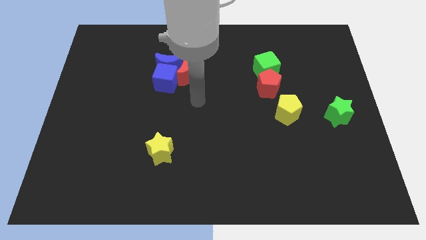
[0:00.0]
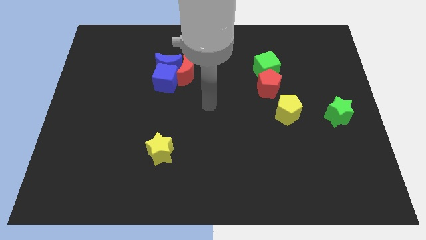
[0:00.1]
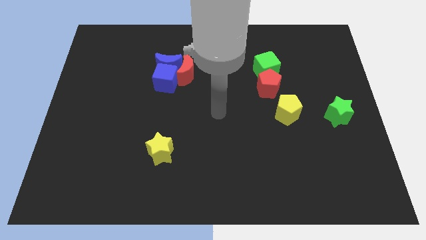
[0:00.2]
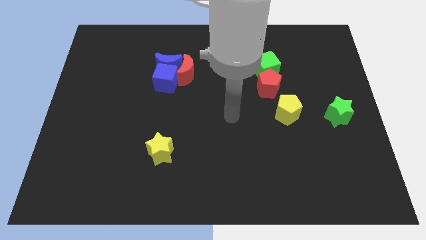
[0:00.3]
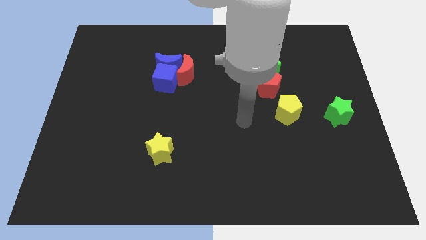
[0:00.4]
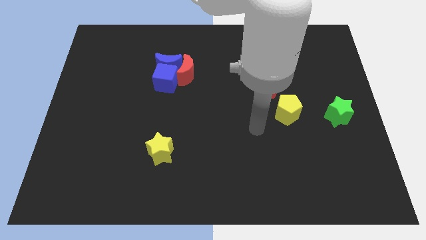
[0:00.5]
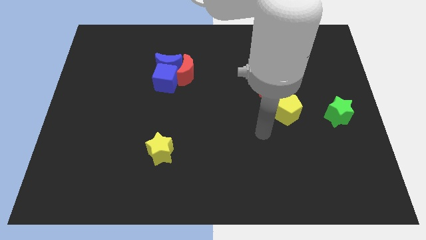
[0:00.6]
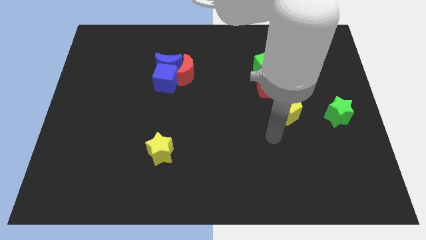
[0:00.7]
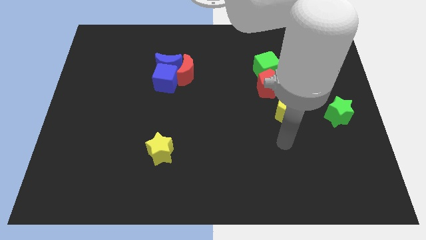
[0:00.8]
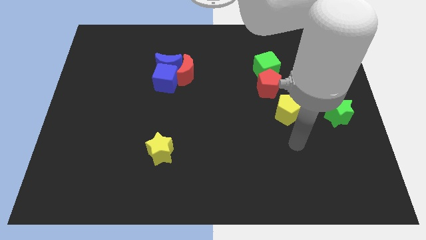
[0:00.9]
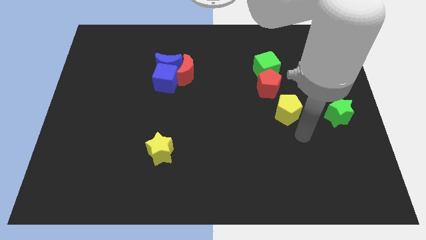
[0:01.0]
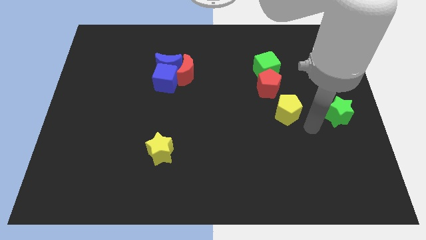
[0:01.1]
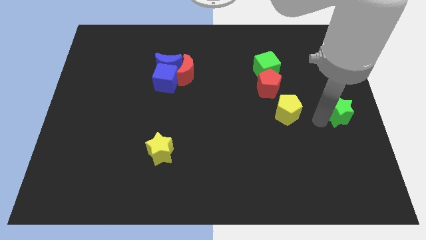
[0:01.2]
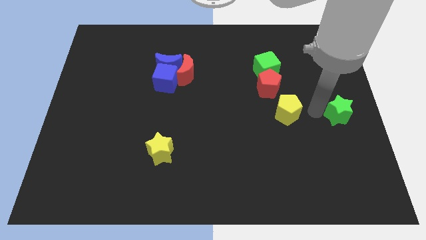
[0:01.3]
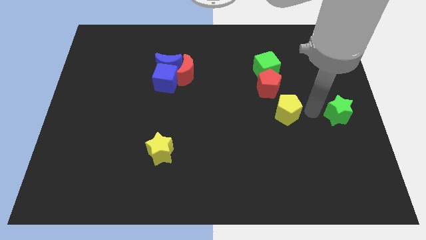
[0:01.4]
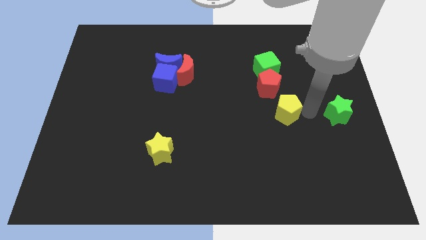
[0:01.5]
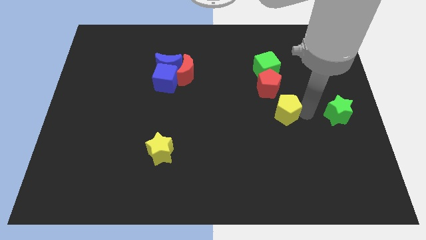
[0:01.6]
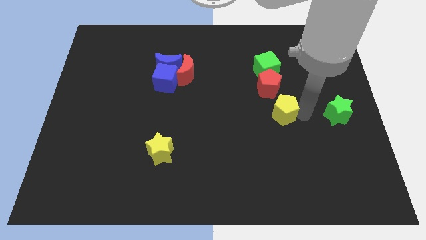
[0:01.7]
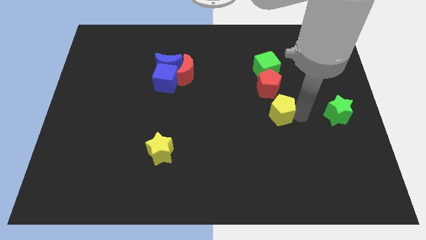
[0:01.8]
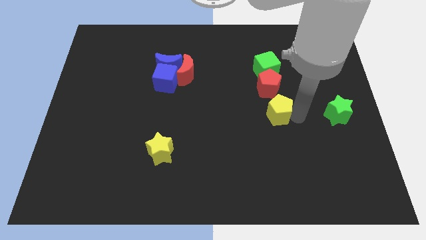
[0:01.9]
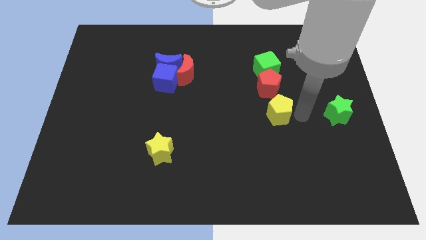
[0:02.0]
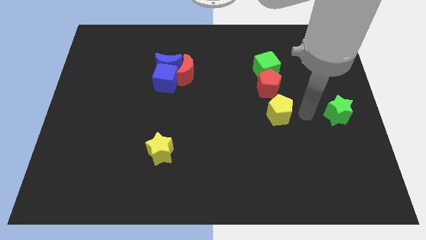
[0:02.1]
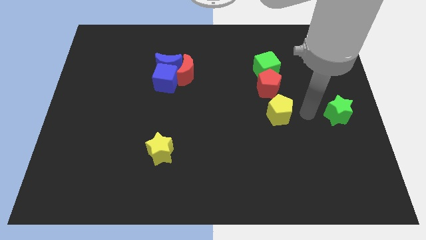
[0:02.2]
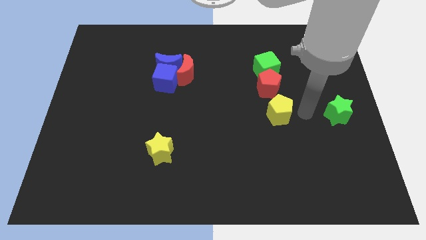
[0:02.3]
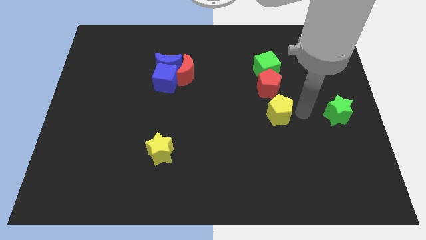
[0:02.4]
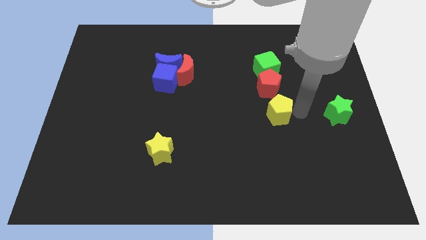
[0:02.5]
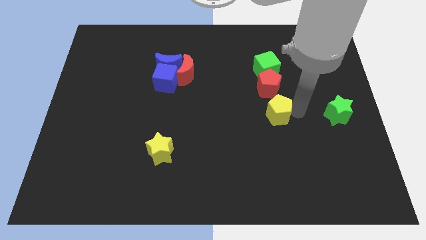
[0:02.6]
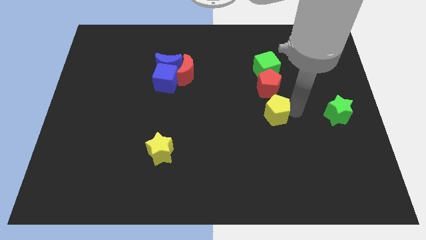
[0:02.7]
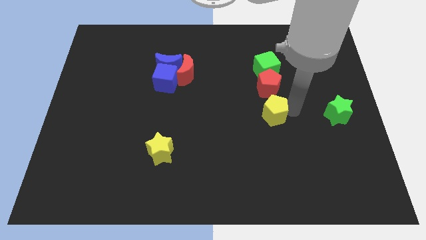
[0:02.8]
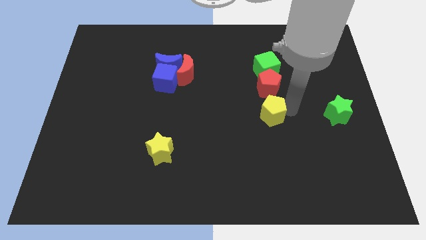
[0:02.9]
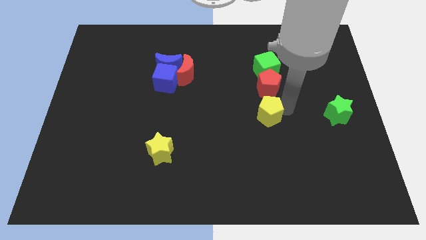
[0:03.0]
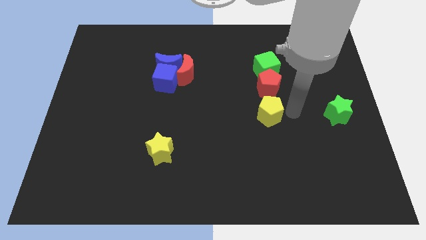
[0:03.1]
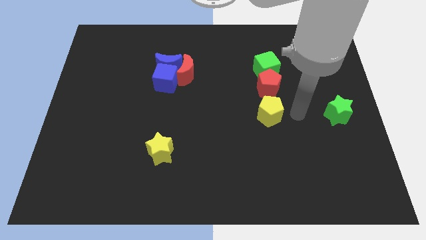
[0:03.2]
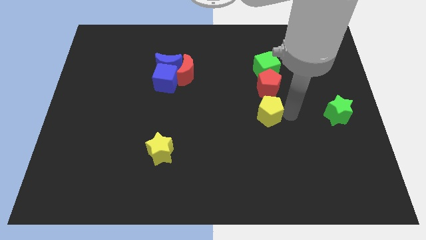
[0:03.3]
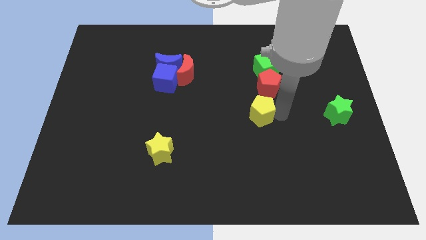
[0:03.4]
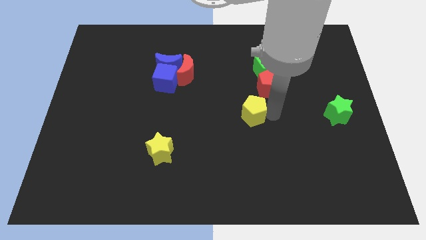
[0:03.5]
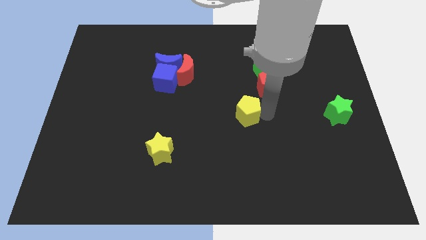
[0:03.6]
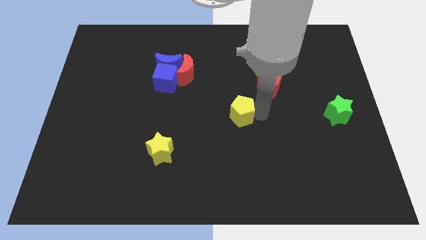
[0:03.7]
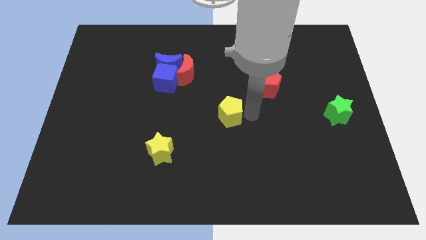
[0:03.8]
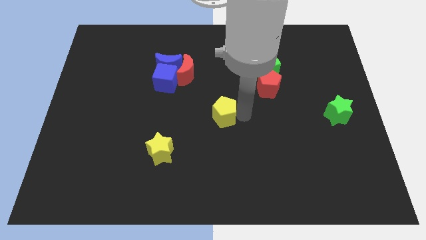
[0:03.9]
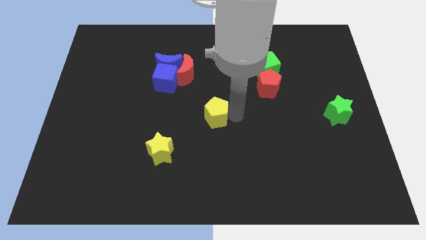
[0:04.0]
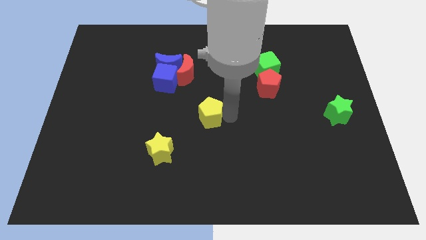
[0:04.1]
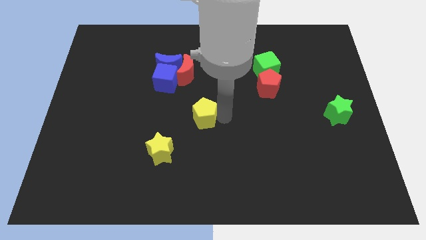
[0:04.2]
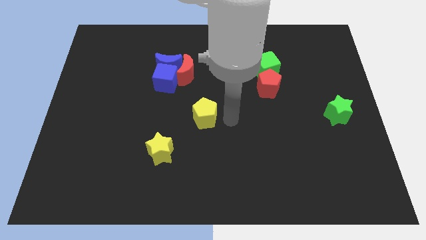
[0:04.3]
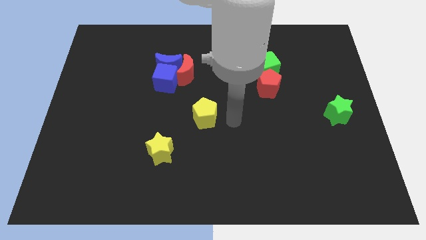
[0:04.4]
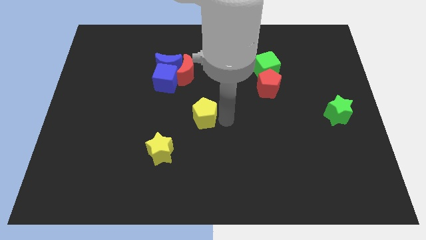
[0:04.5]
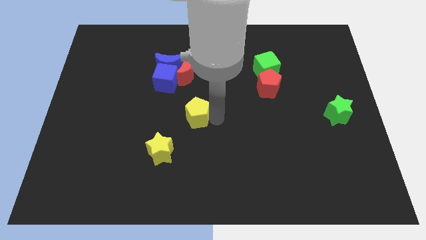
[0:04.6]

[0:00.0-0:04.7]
push the yellow pentagon to the left

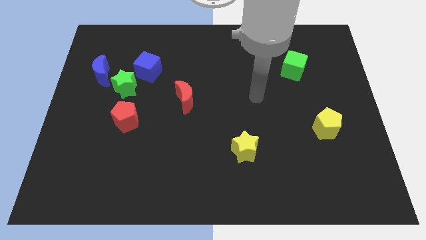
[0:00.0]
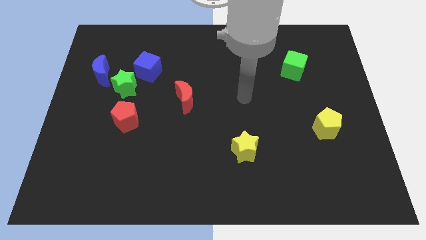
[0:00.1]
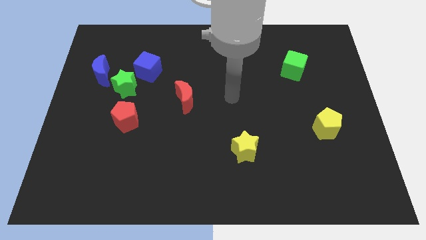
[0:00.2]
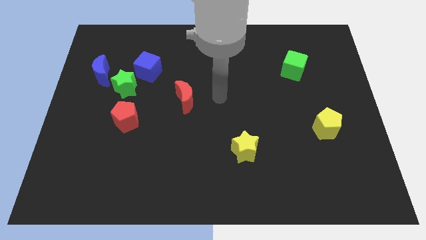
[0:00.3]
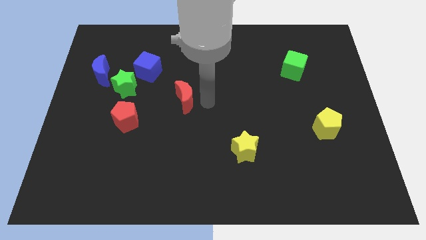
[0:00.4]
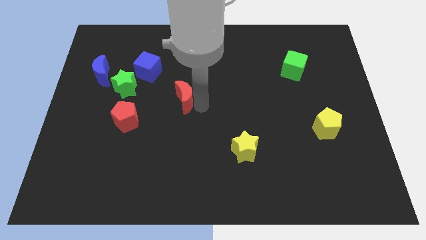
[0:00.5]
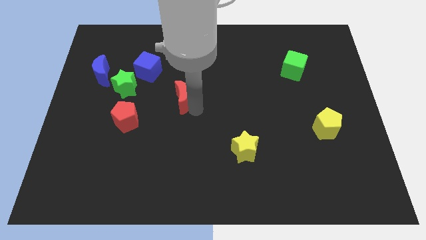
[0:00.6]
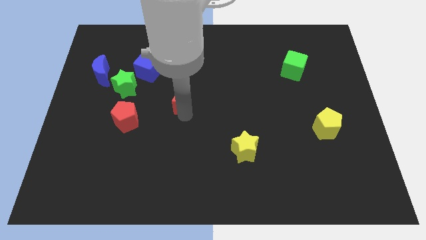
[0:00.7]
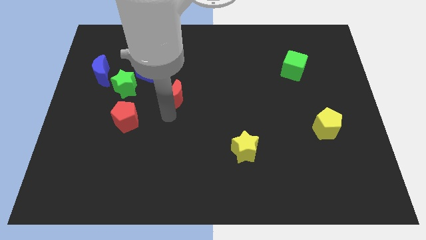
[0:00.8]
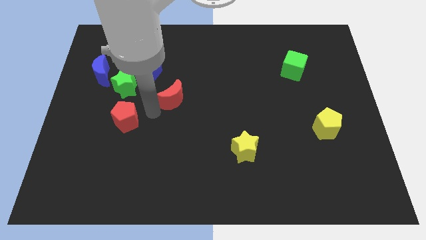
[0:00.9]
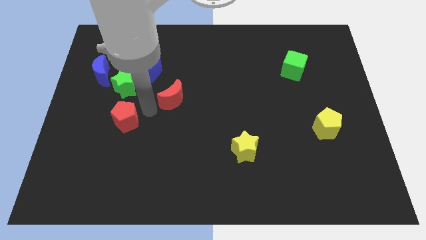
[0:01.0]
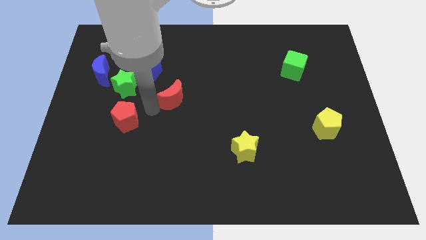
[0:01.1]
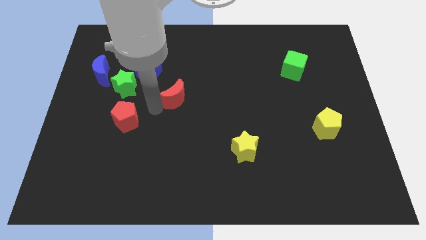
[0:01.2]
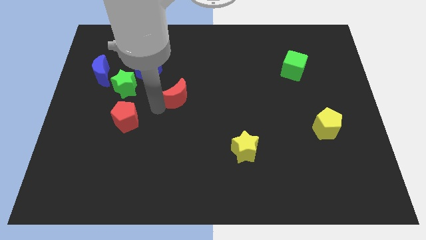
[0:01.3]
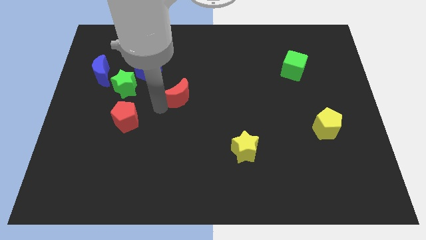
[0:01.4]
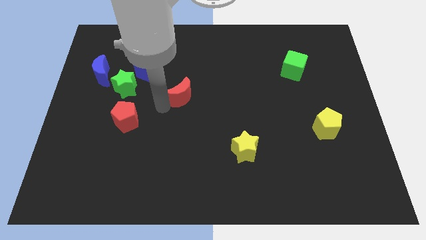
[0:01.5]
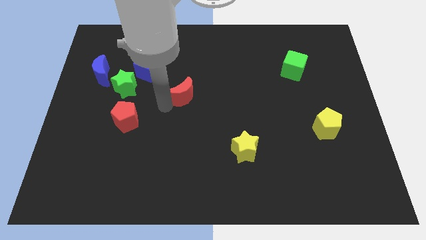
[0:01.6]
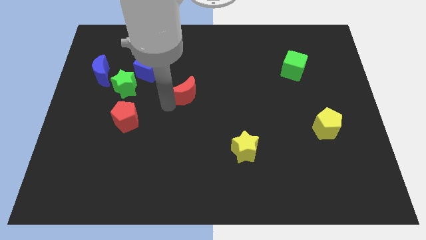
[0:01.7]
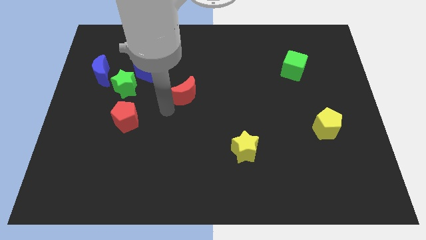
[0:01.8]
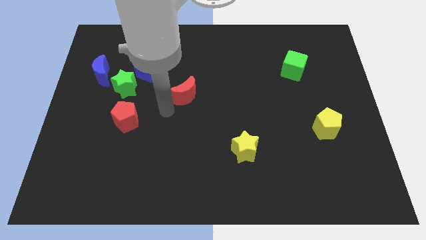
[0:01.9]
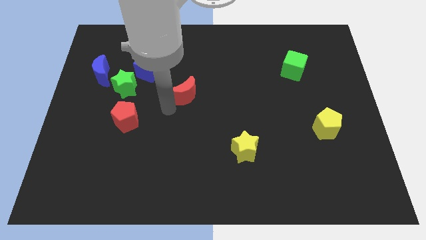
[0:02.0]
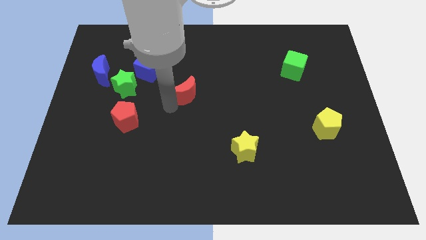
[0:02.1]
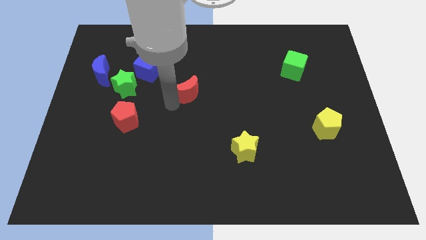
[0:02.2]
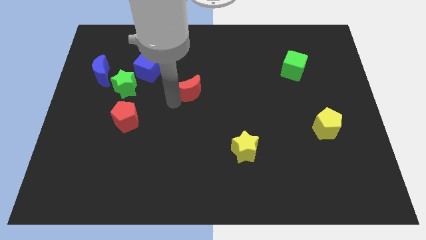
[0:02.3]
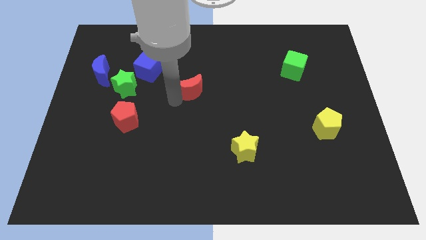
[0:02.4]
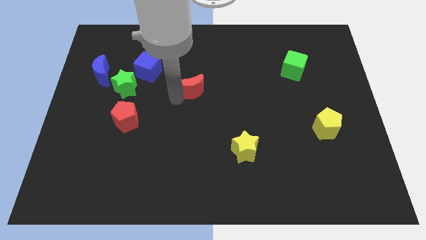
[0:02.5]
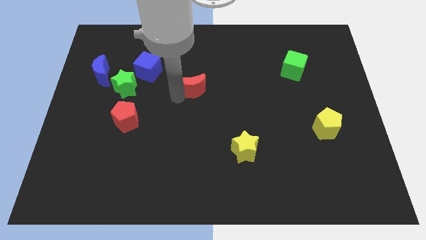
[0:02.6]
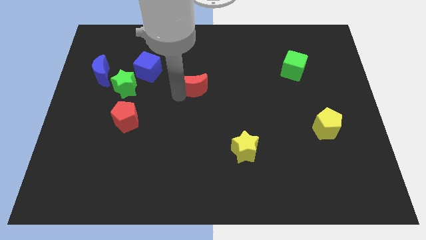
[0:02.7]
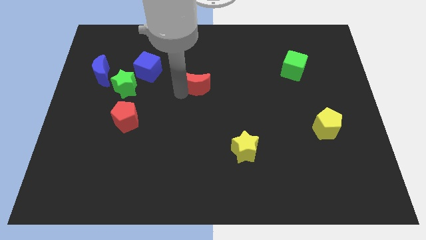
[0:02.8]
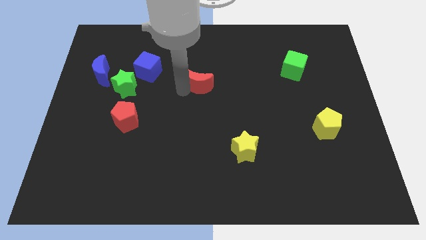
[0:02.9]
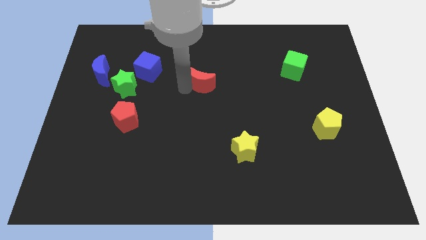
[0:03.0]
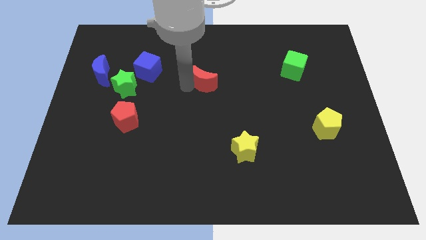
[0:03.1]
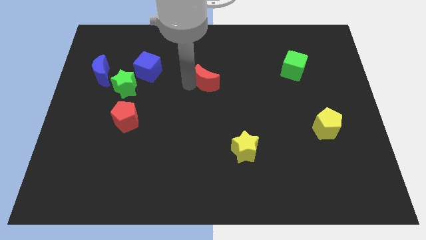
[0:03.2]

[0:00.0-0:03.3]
move the red moon a little up and to the right diagonally
